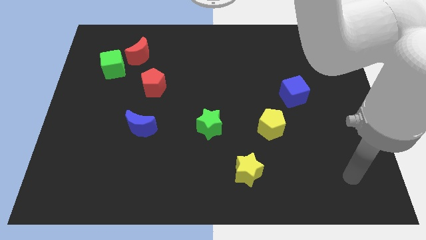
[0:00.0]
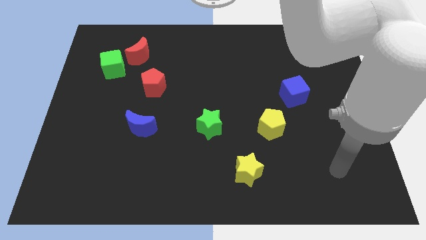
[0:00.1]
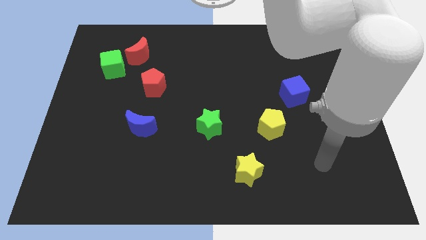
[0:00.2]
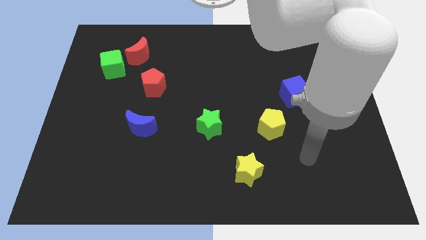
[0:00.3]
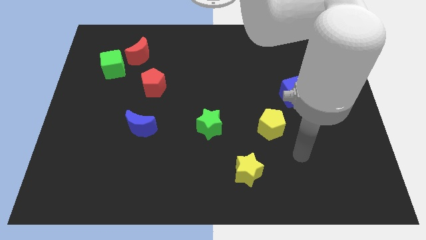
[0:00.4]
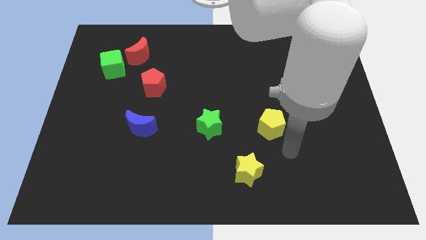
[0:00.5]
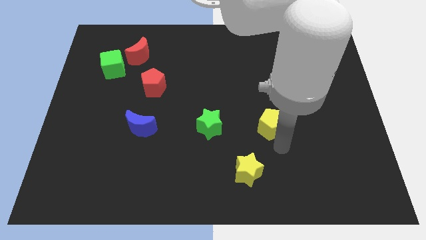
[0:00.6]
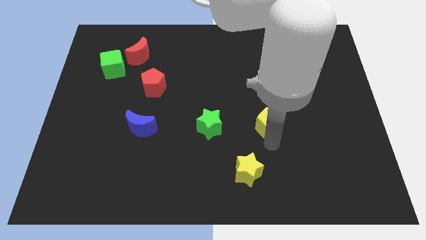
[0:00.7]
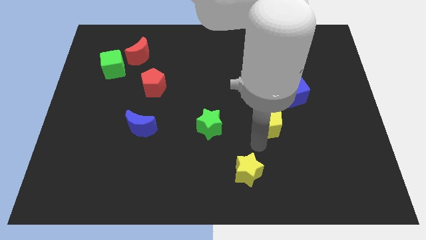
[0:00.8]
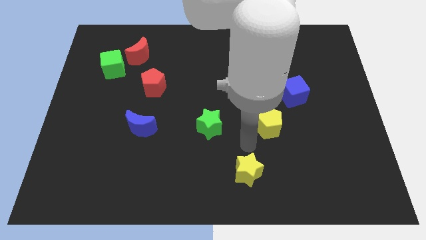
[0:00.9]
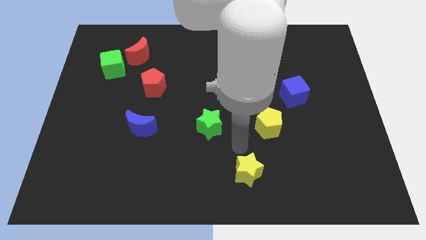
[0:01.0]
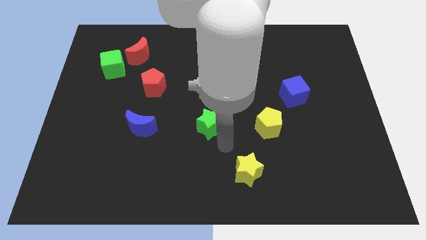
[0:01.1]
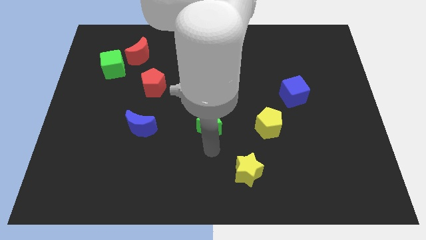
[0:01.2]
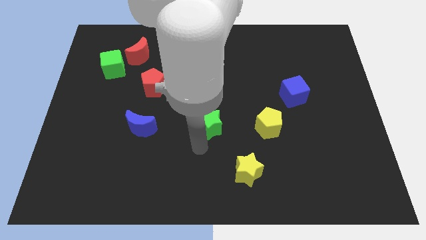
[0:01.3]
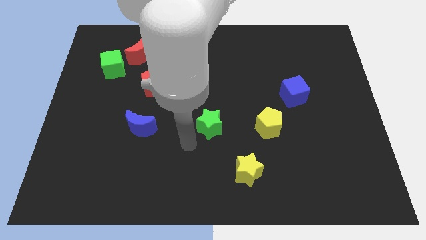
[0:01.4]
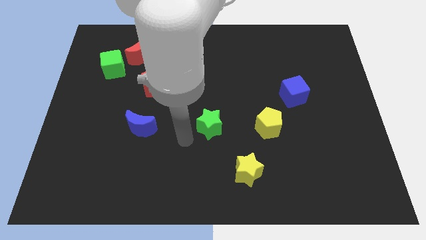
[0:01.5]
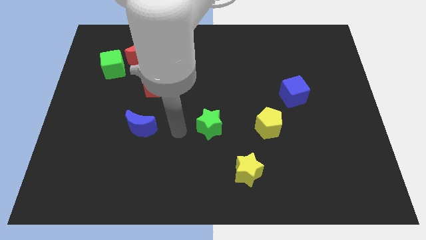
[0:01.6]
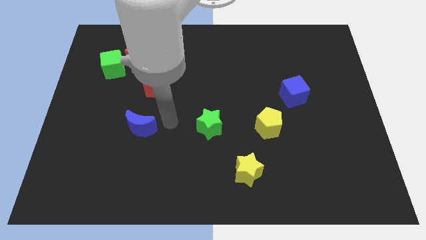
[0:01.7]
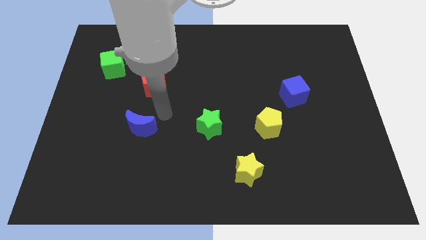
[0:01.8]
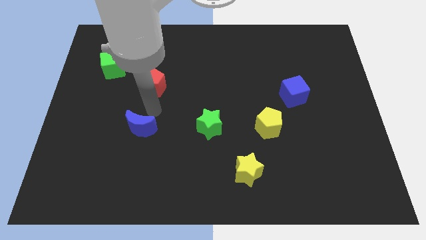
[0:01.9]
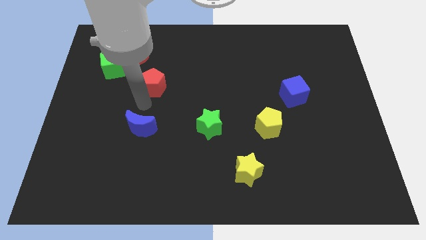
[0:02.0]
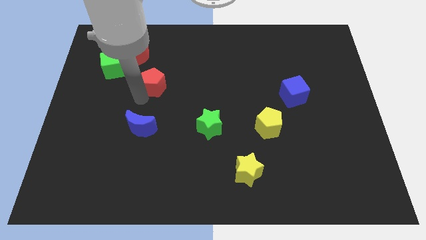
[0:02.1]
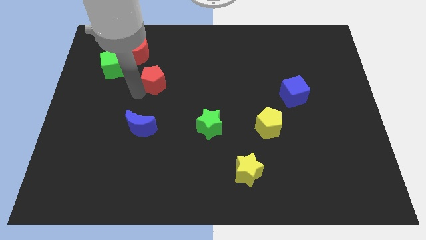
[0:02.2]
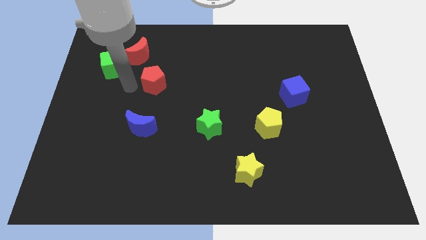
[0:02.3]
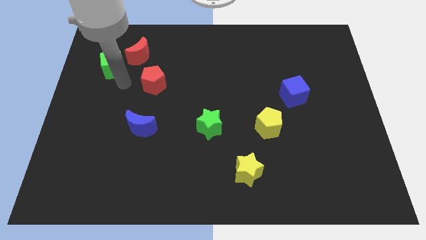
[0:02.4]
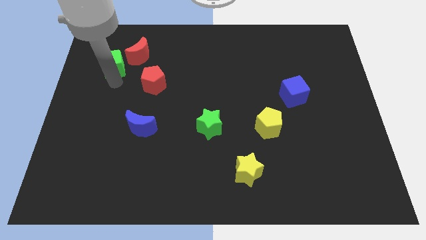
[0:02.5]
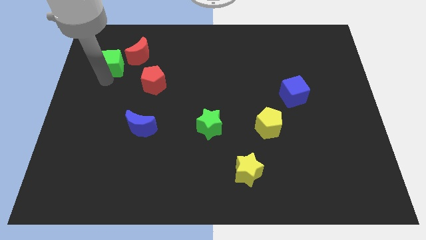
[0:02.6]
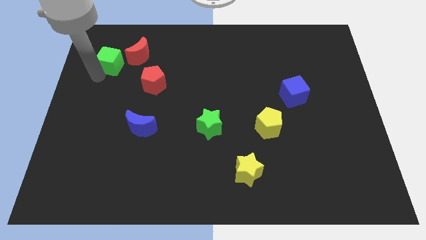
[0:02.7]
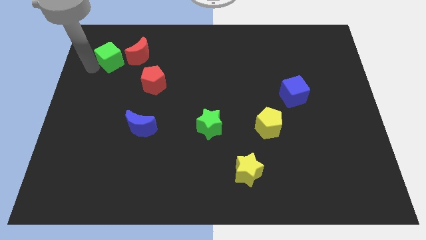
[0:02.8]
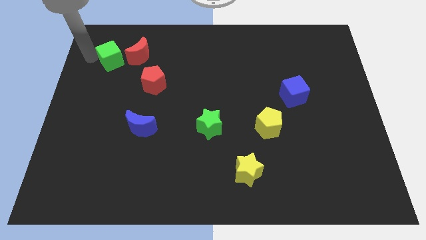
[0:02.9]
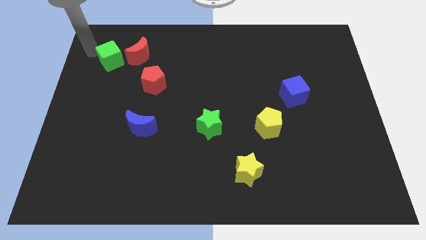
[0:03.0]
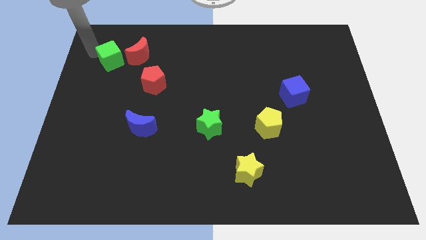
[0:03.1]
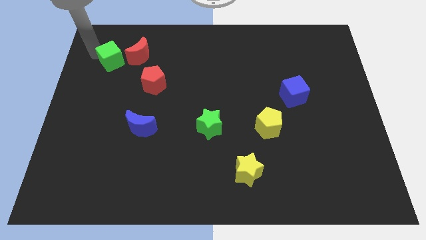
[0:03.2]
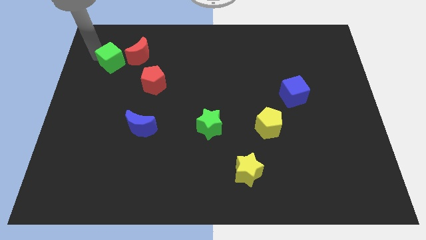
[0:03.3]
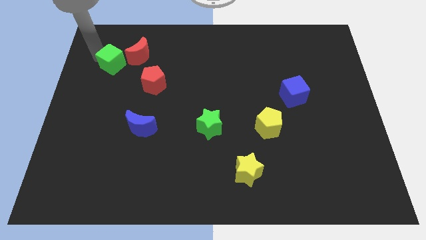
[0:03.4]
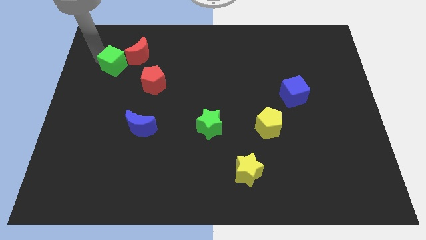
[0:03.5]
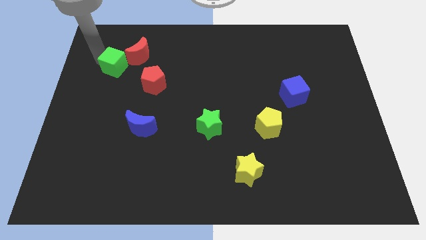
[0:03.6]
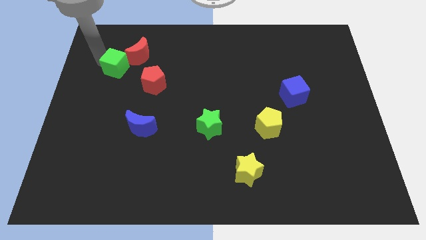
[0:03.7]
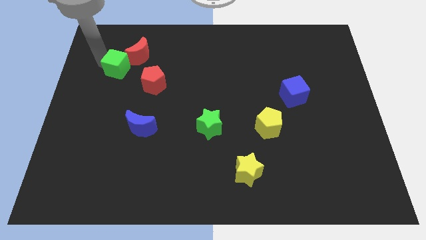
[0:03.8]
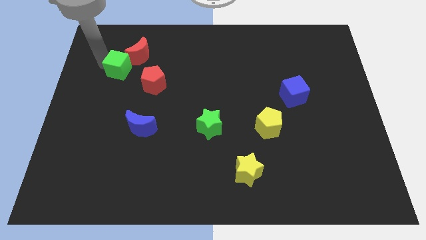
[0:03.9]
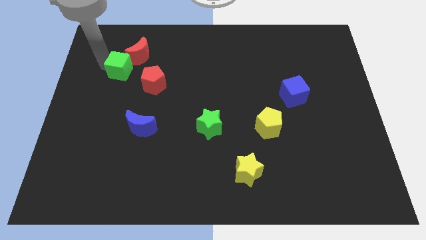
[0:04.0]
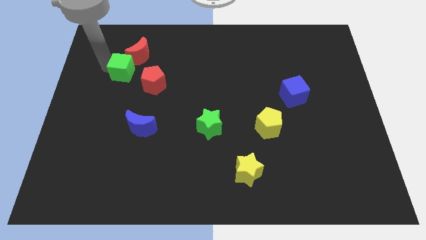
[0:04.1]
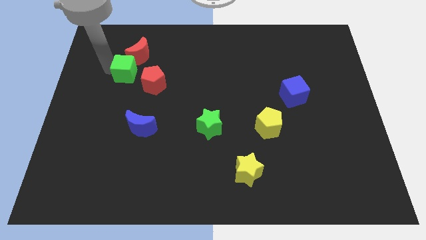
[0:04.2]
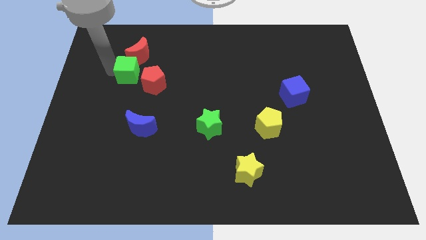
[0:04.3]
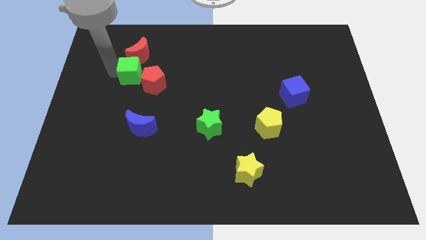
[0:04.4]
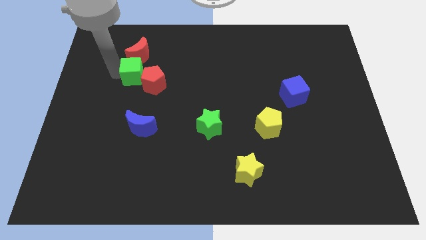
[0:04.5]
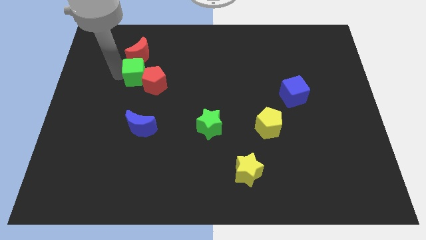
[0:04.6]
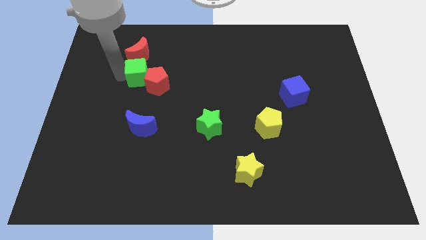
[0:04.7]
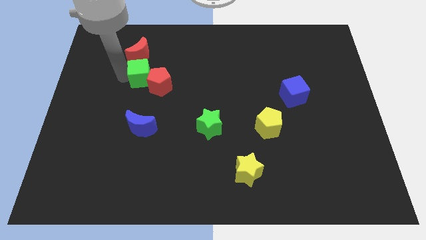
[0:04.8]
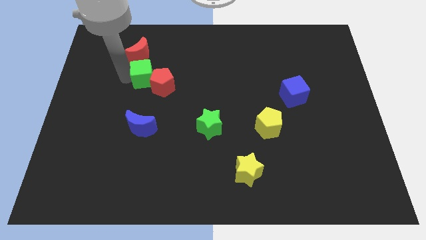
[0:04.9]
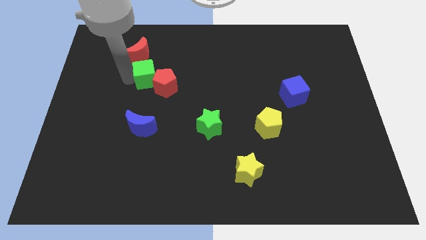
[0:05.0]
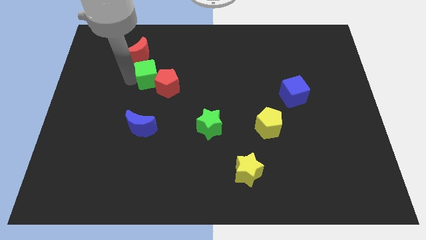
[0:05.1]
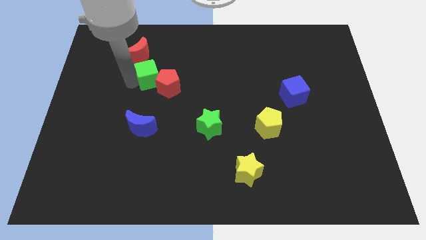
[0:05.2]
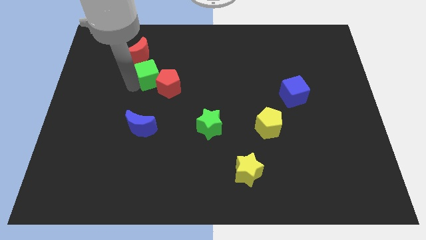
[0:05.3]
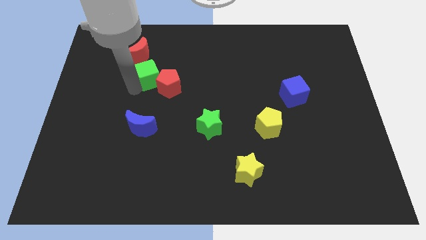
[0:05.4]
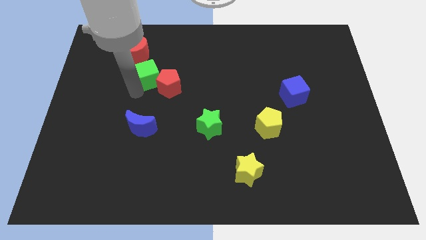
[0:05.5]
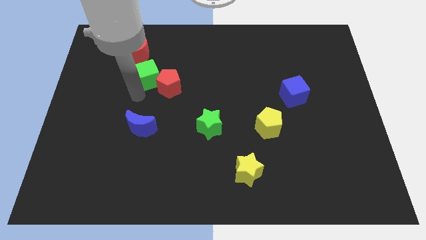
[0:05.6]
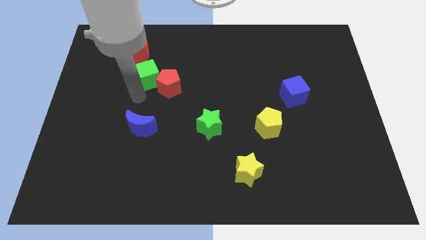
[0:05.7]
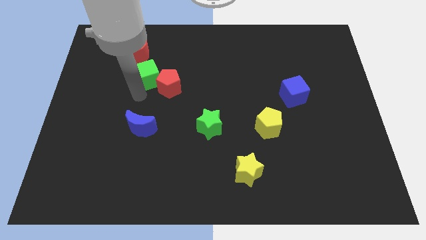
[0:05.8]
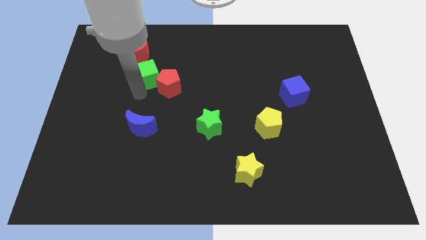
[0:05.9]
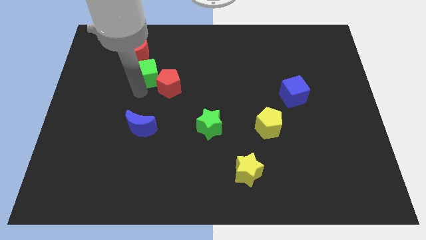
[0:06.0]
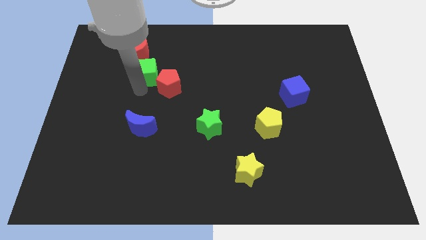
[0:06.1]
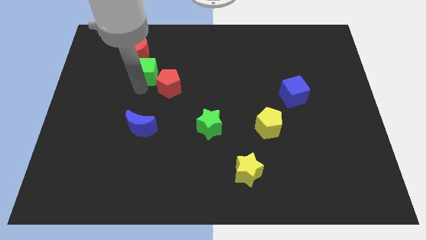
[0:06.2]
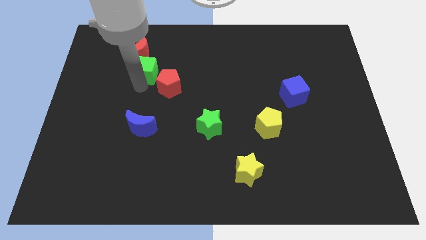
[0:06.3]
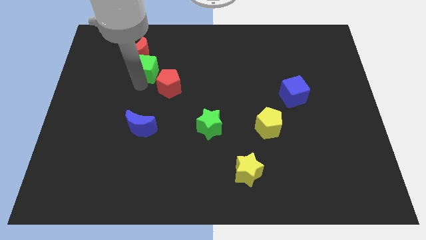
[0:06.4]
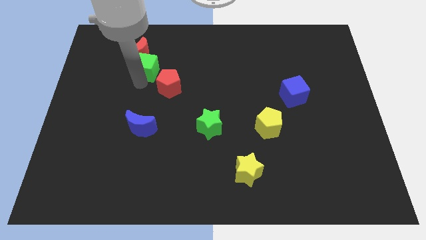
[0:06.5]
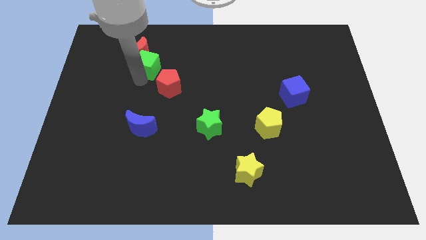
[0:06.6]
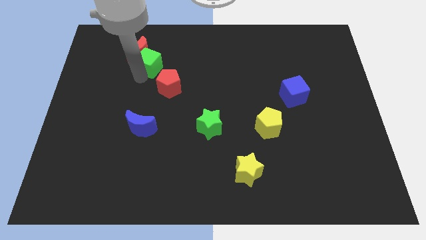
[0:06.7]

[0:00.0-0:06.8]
move the green cube right of the red moon
